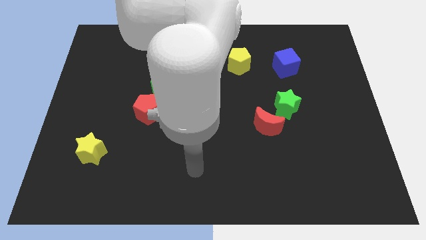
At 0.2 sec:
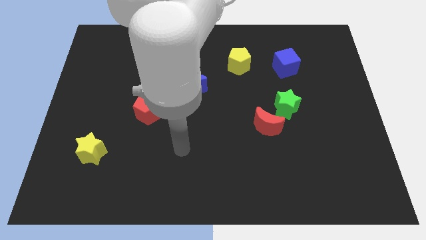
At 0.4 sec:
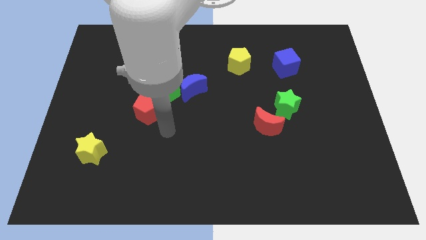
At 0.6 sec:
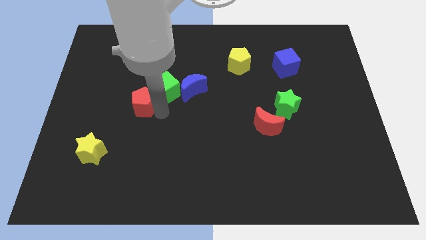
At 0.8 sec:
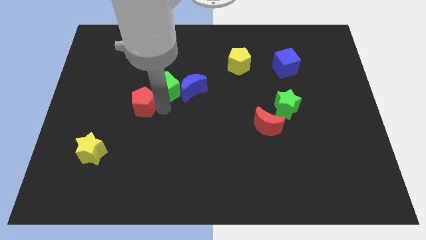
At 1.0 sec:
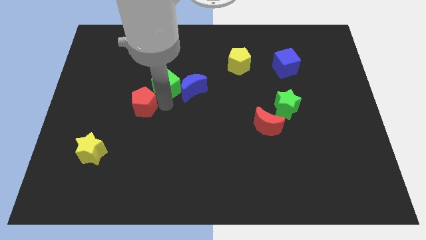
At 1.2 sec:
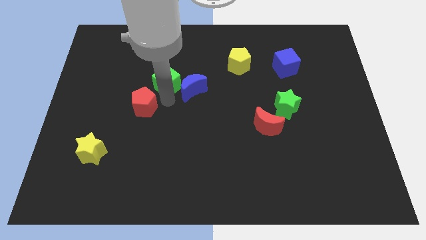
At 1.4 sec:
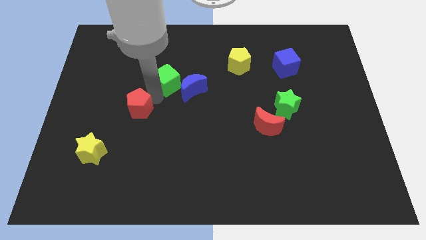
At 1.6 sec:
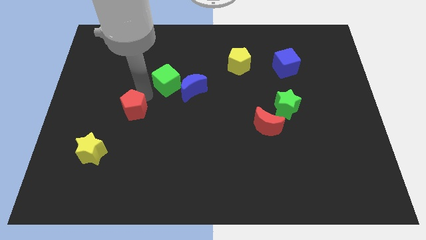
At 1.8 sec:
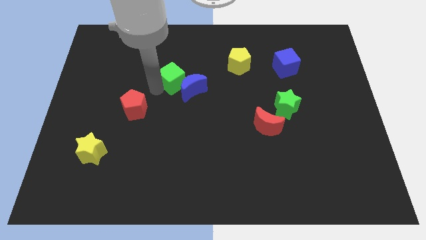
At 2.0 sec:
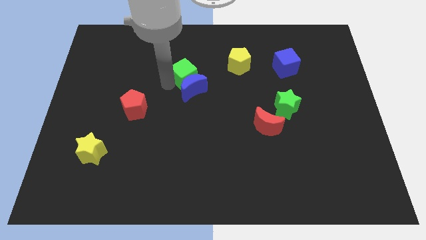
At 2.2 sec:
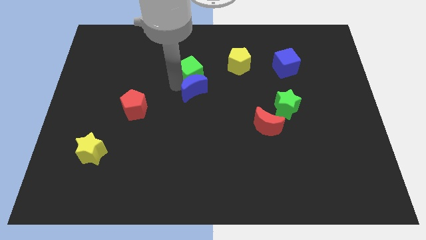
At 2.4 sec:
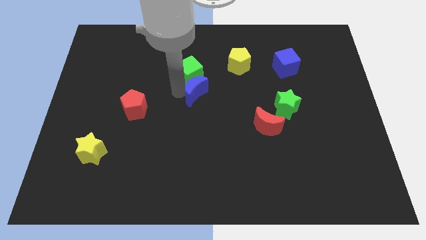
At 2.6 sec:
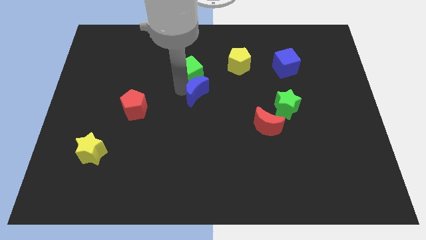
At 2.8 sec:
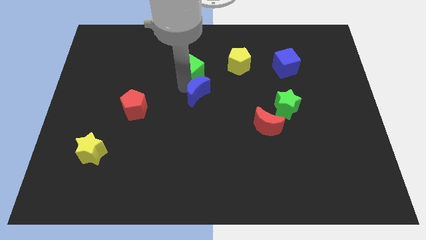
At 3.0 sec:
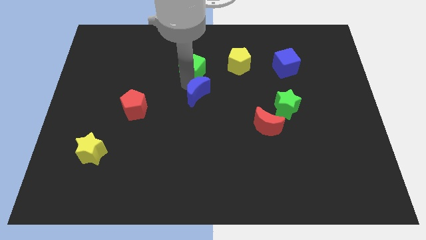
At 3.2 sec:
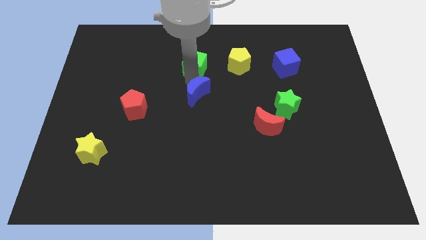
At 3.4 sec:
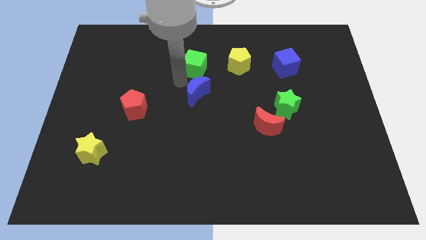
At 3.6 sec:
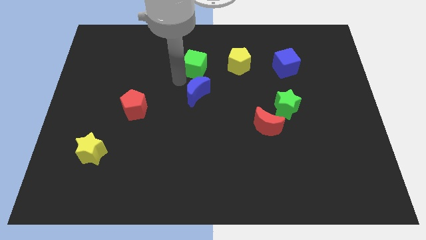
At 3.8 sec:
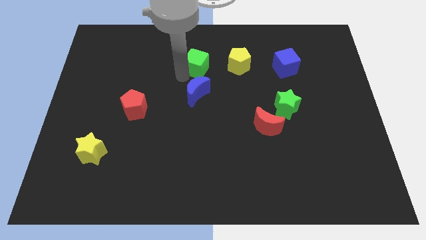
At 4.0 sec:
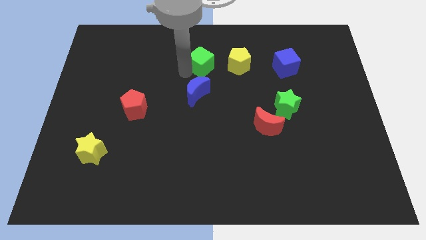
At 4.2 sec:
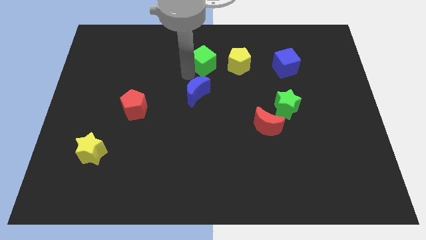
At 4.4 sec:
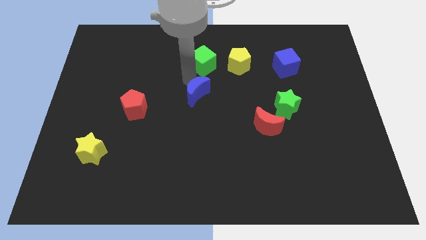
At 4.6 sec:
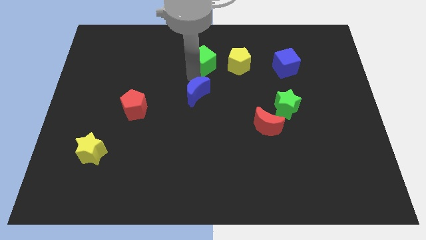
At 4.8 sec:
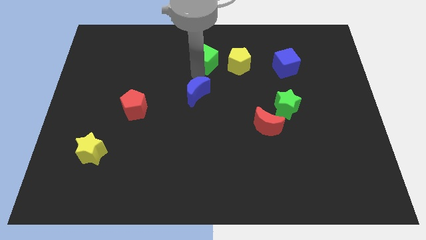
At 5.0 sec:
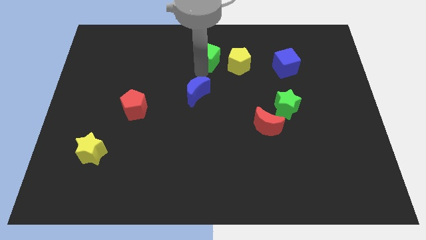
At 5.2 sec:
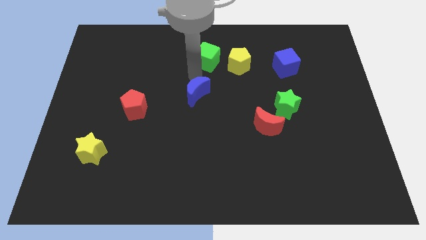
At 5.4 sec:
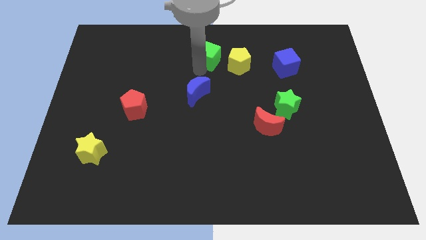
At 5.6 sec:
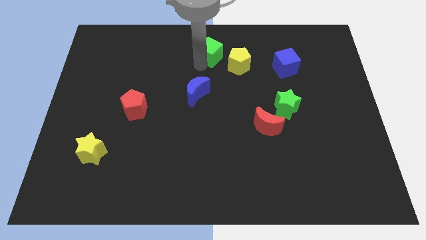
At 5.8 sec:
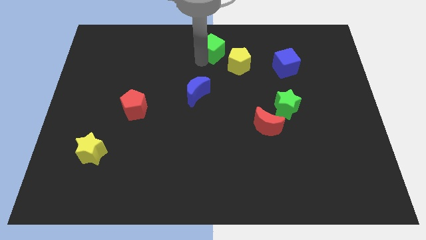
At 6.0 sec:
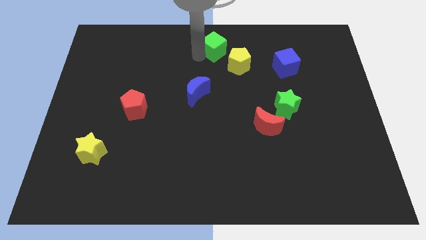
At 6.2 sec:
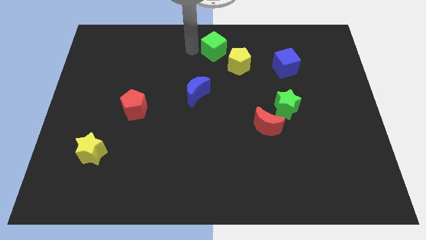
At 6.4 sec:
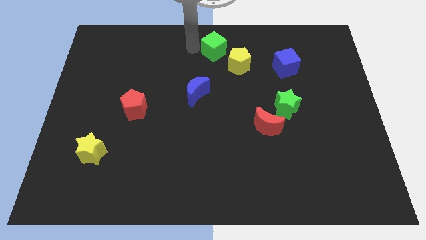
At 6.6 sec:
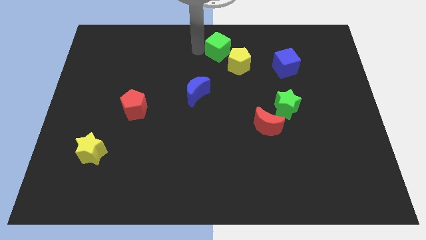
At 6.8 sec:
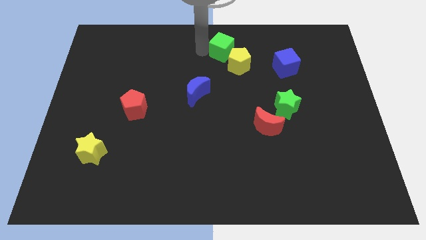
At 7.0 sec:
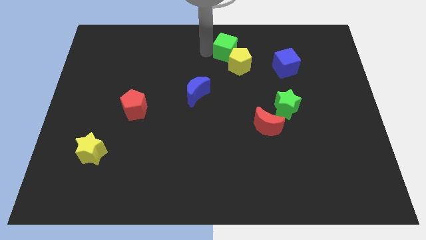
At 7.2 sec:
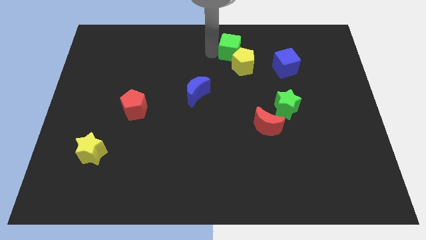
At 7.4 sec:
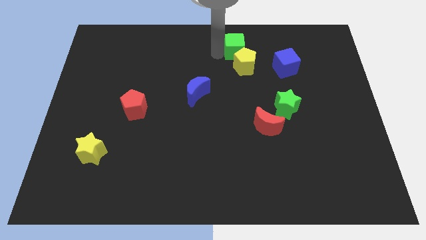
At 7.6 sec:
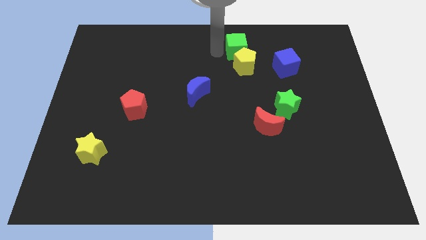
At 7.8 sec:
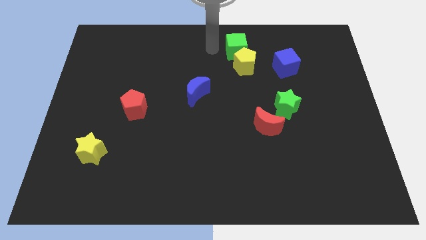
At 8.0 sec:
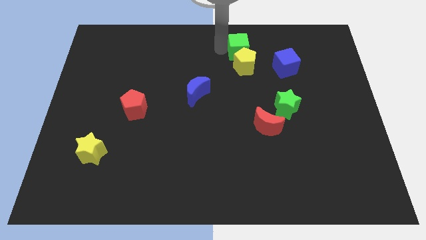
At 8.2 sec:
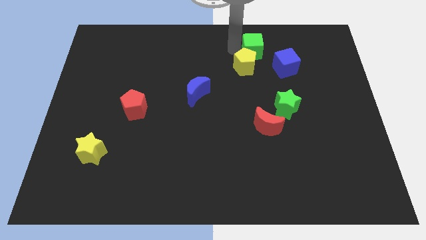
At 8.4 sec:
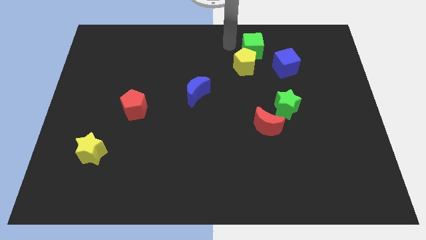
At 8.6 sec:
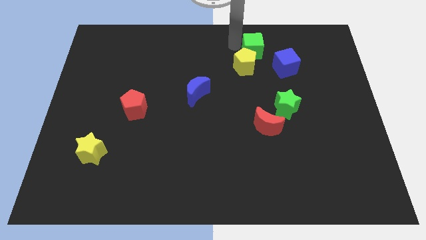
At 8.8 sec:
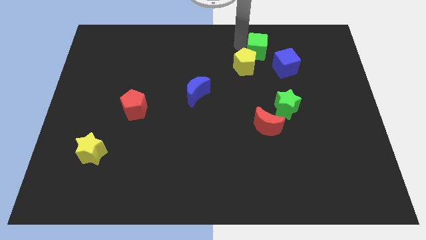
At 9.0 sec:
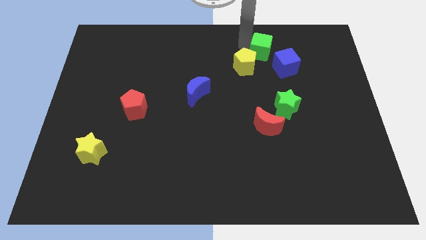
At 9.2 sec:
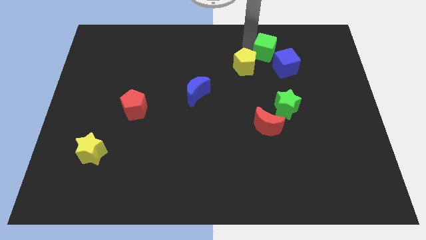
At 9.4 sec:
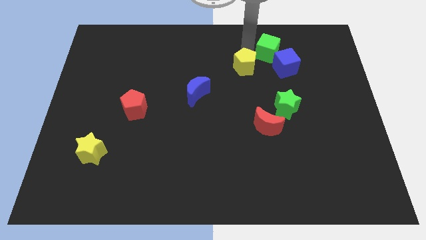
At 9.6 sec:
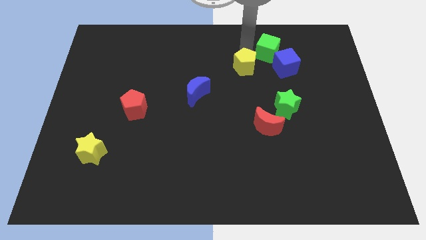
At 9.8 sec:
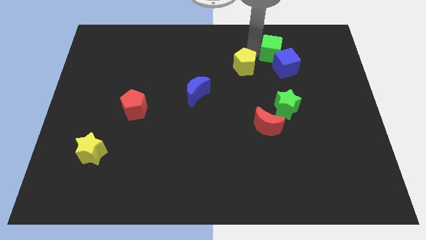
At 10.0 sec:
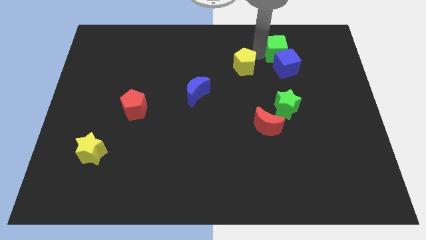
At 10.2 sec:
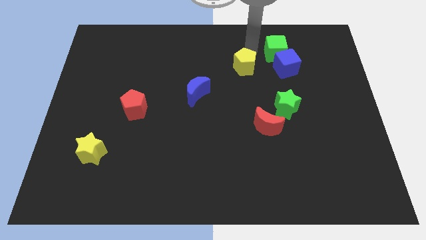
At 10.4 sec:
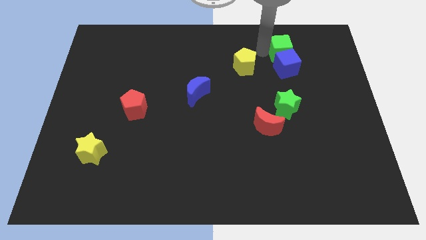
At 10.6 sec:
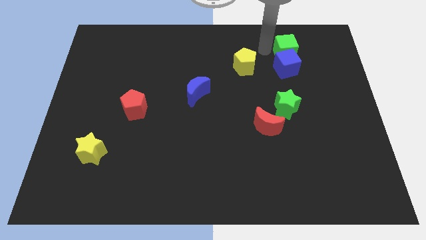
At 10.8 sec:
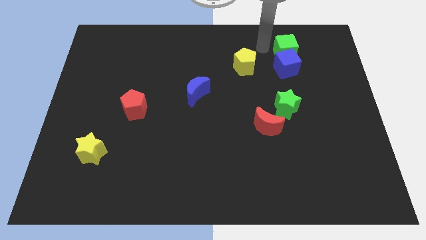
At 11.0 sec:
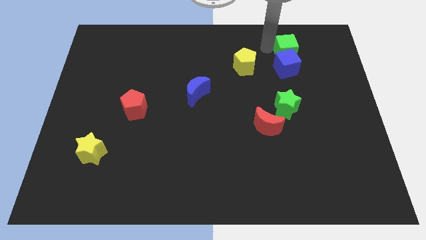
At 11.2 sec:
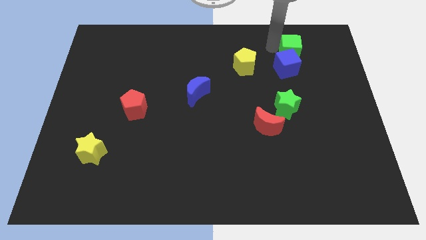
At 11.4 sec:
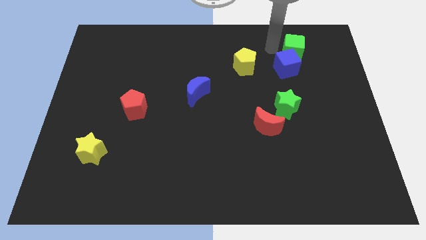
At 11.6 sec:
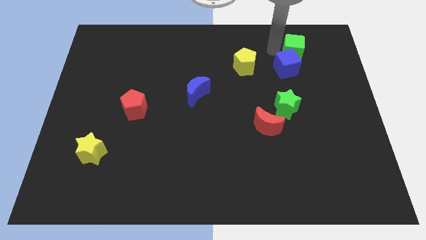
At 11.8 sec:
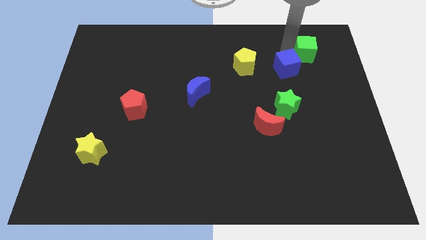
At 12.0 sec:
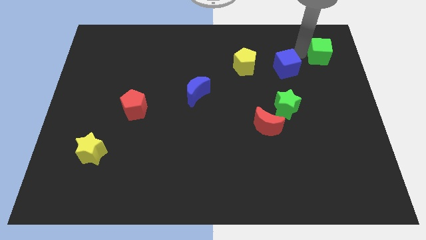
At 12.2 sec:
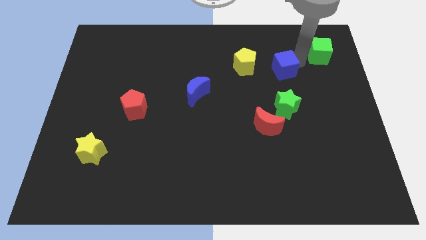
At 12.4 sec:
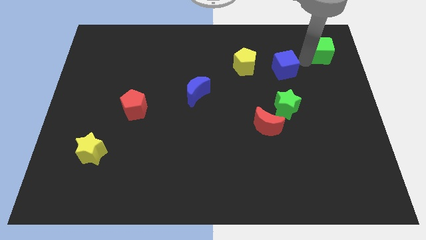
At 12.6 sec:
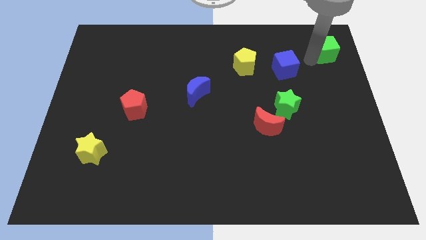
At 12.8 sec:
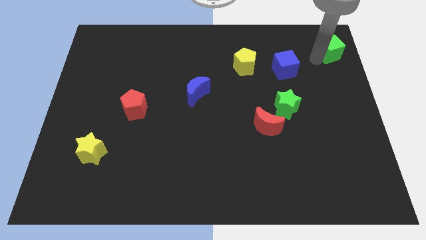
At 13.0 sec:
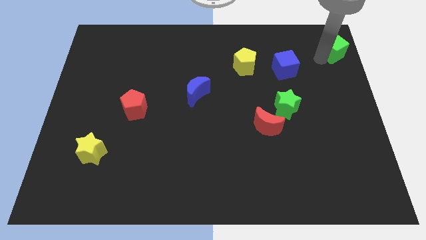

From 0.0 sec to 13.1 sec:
push the green cube to the top right
